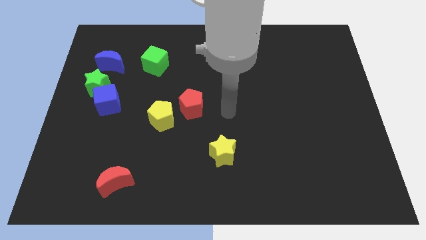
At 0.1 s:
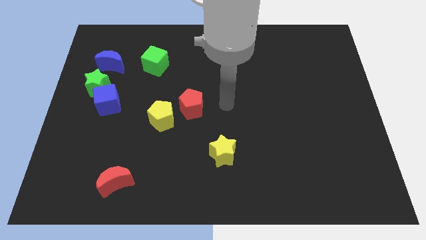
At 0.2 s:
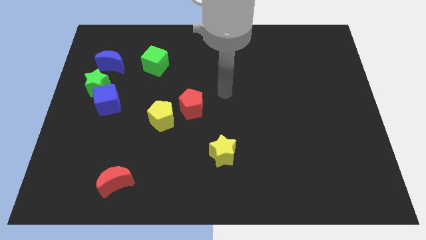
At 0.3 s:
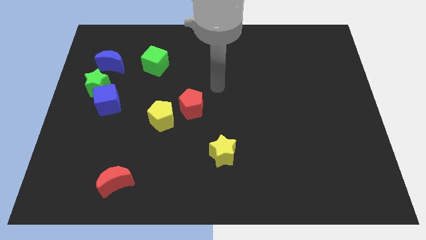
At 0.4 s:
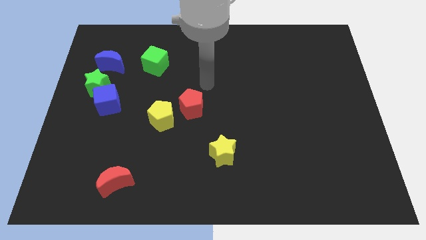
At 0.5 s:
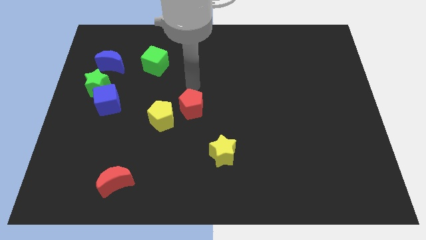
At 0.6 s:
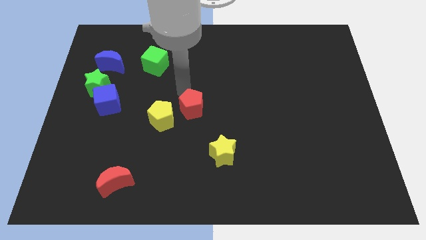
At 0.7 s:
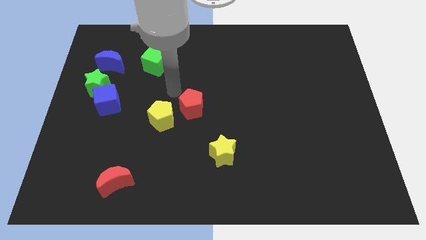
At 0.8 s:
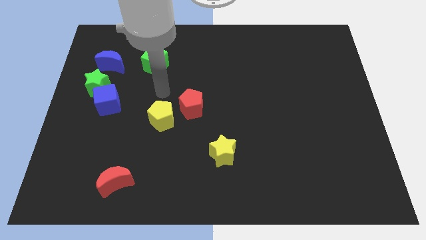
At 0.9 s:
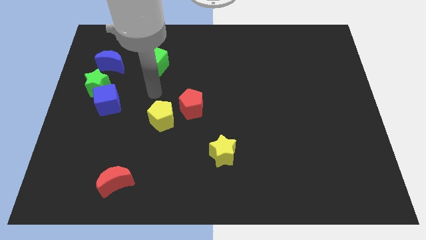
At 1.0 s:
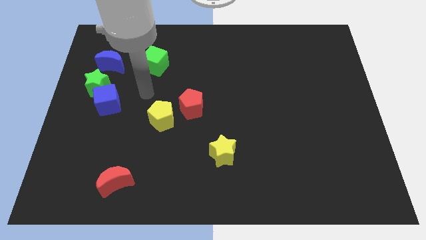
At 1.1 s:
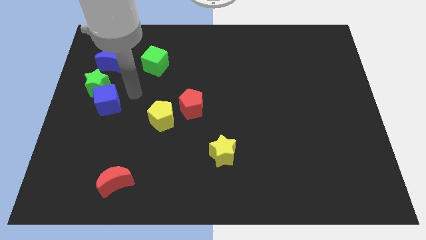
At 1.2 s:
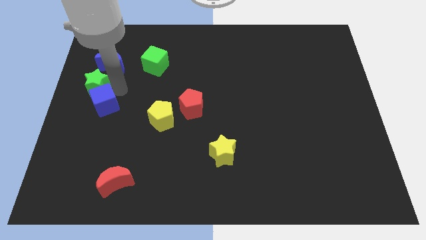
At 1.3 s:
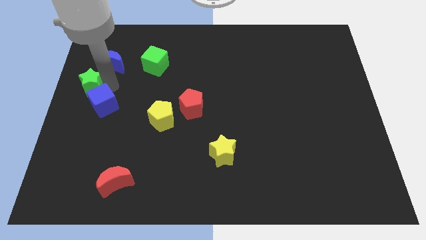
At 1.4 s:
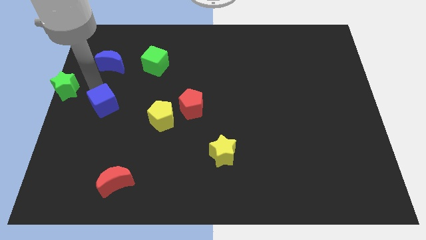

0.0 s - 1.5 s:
move the blue cube away from the green star

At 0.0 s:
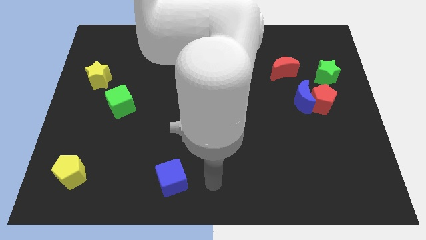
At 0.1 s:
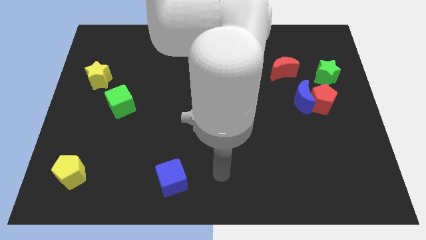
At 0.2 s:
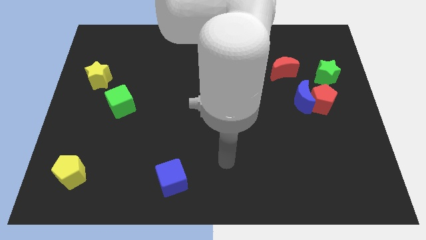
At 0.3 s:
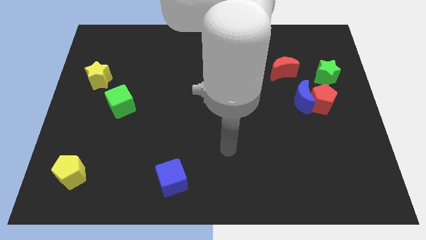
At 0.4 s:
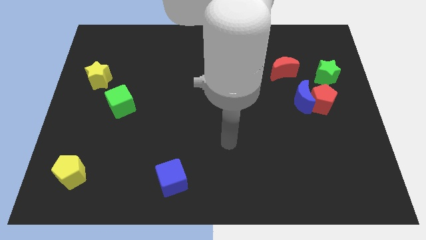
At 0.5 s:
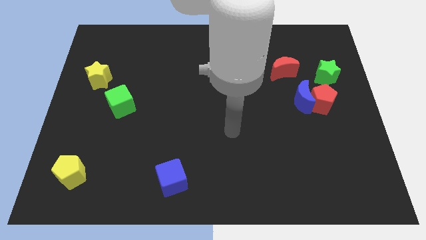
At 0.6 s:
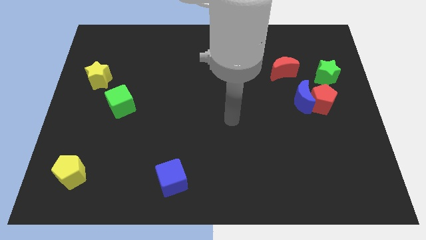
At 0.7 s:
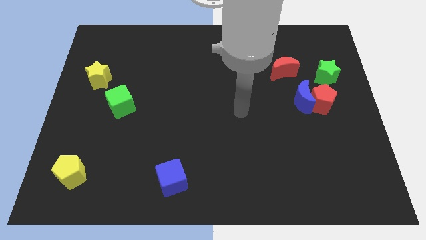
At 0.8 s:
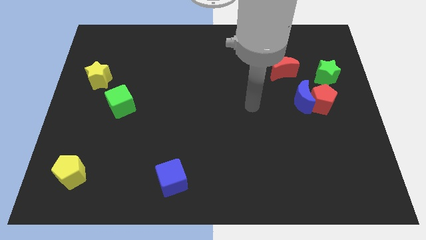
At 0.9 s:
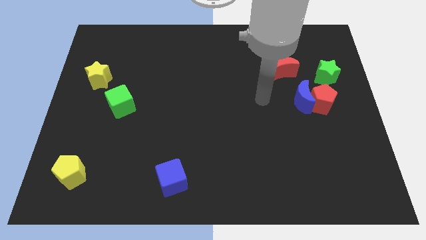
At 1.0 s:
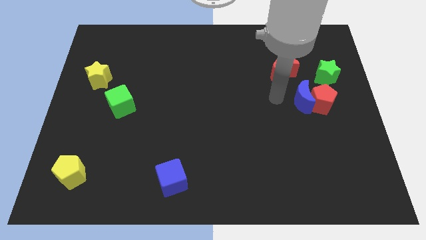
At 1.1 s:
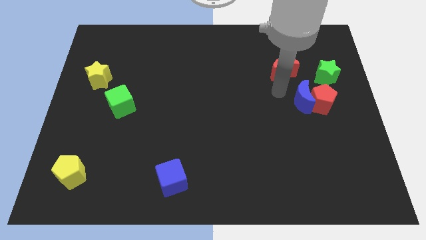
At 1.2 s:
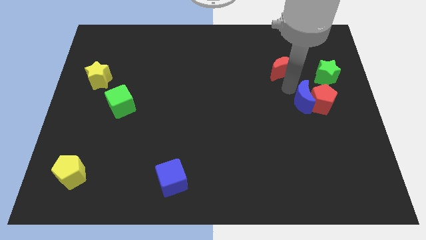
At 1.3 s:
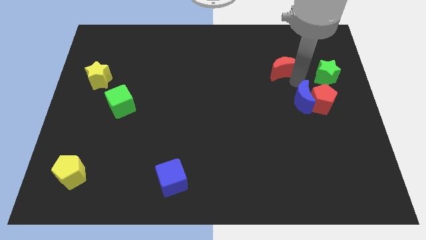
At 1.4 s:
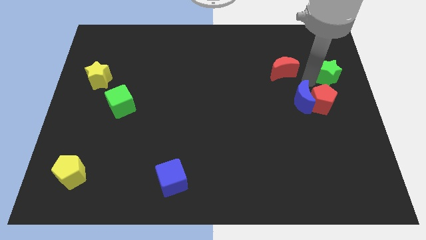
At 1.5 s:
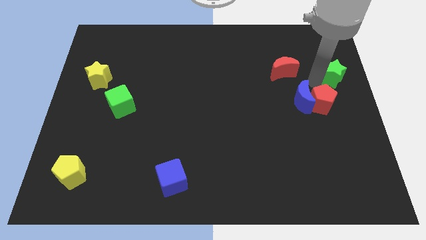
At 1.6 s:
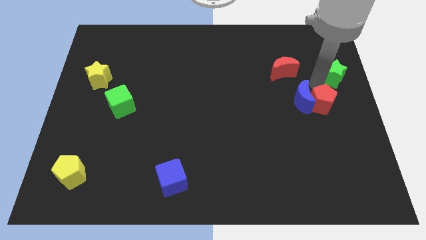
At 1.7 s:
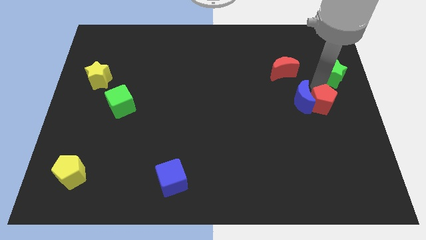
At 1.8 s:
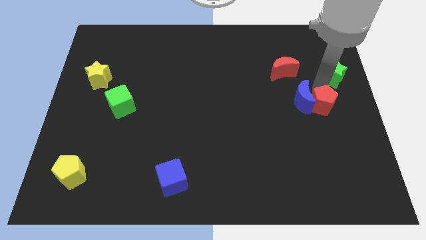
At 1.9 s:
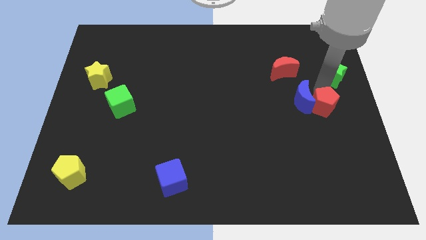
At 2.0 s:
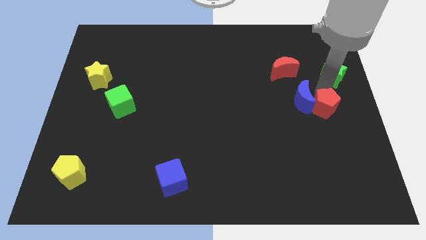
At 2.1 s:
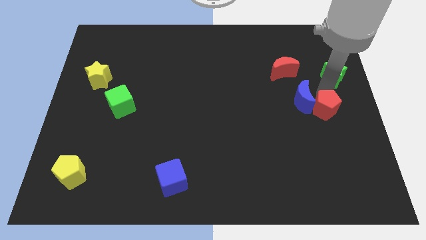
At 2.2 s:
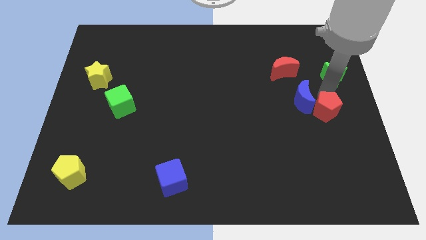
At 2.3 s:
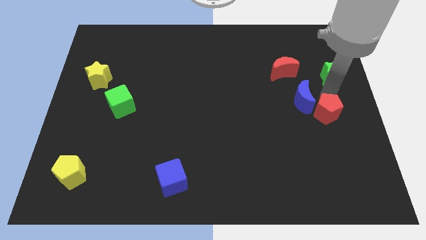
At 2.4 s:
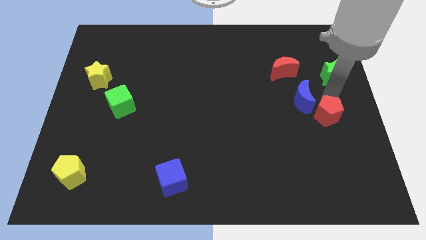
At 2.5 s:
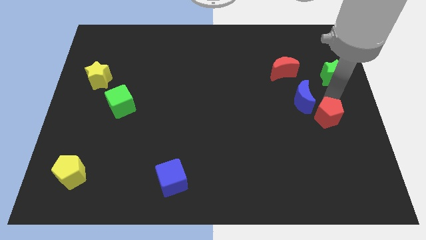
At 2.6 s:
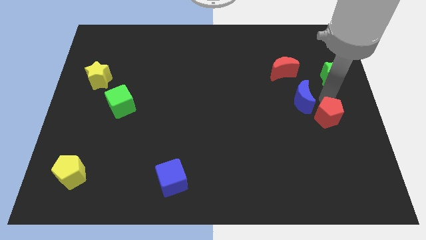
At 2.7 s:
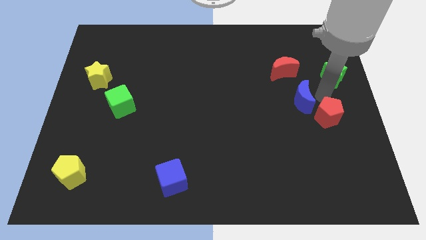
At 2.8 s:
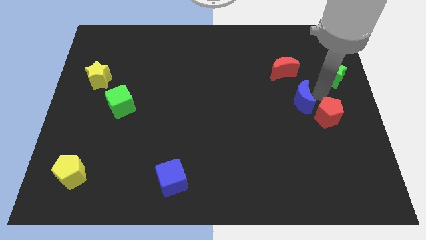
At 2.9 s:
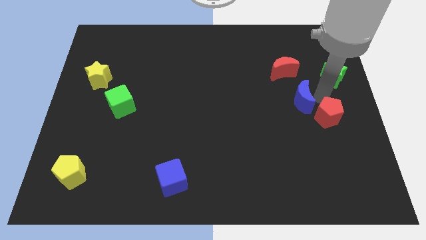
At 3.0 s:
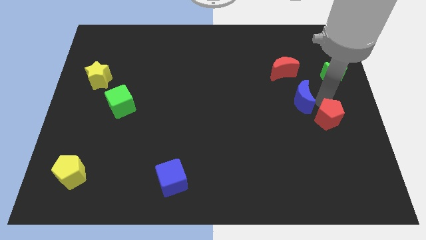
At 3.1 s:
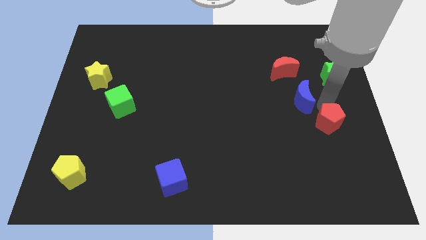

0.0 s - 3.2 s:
separate the red pentagon from the blue moon and green star

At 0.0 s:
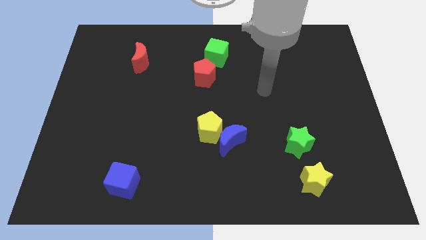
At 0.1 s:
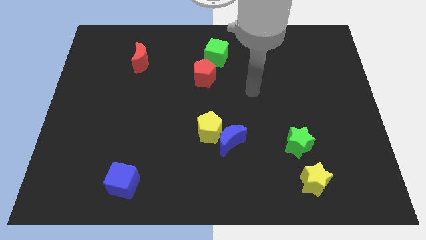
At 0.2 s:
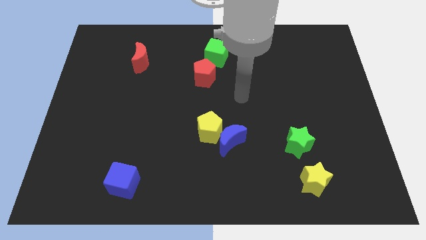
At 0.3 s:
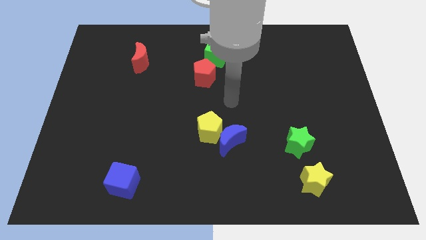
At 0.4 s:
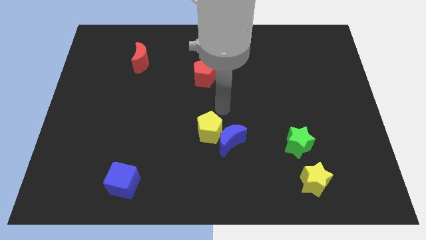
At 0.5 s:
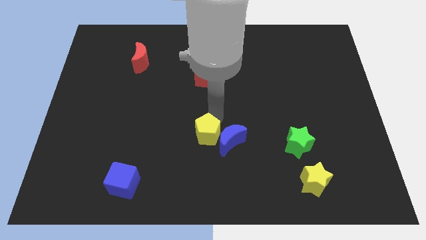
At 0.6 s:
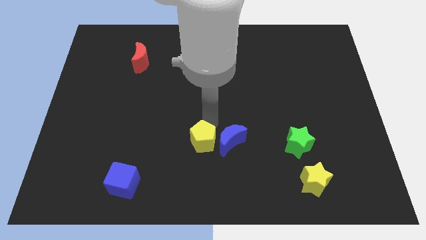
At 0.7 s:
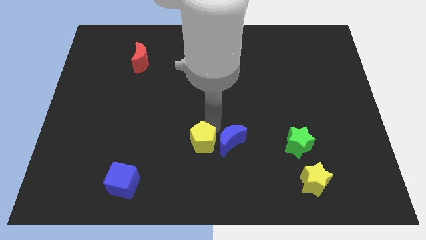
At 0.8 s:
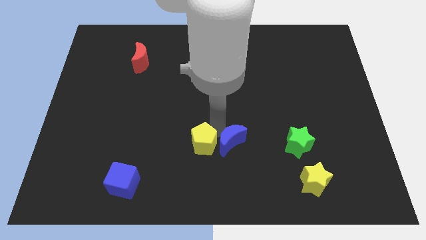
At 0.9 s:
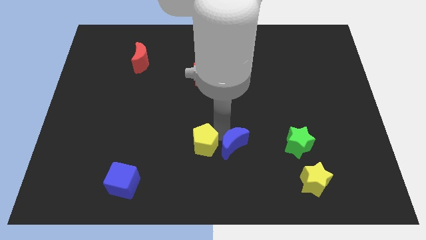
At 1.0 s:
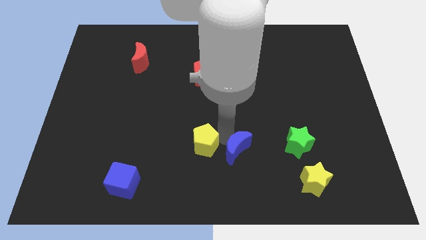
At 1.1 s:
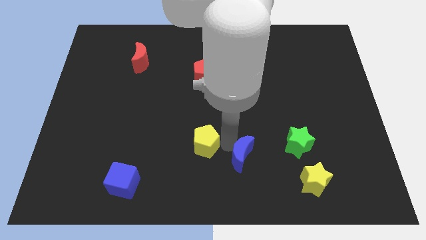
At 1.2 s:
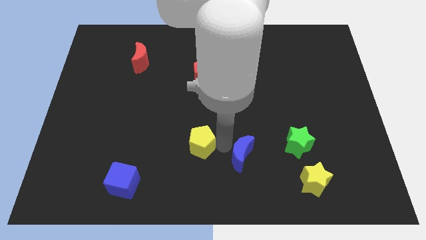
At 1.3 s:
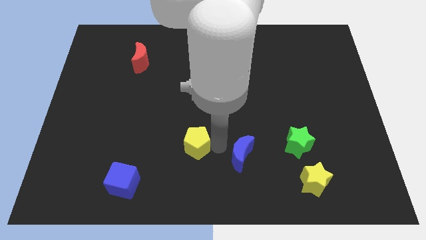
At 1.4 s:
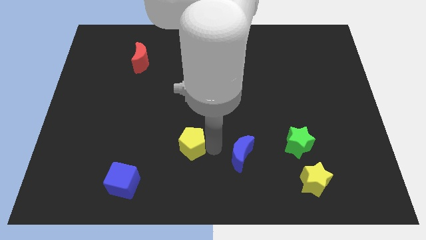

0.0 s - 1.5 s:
pull the blue moon apart from the yellow pentagon

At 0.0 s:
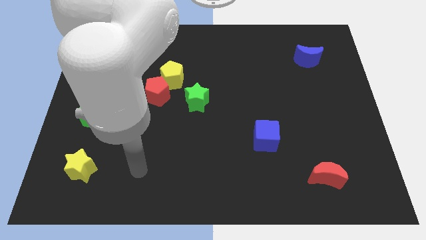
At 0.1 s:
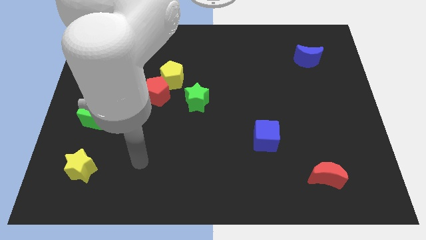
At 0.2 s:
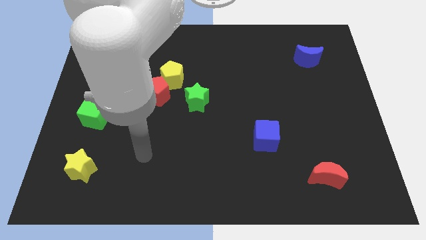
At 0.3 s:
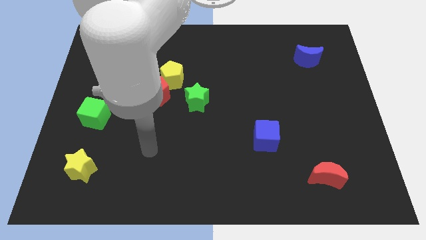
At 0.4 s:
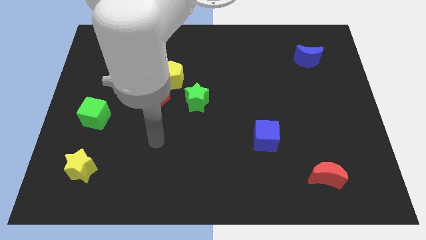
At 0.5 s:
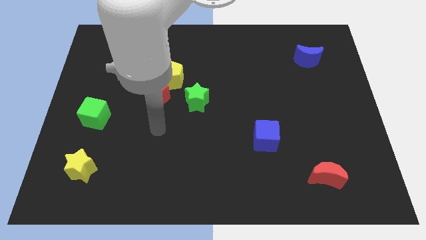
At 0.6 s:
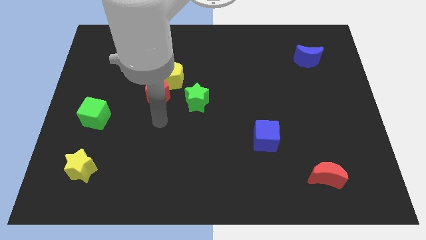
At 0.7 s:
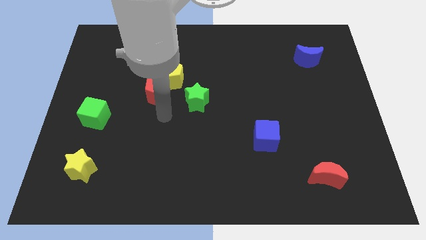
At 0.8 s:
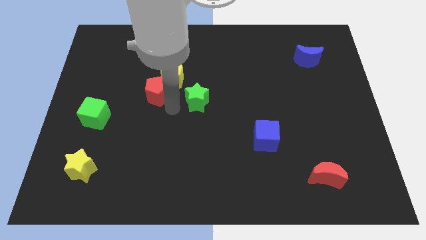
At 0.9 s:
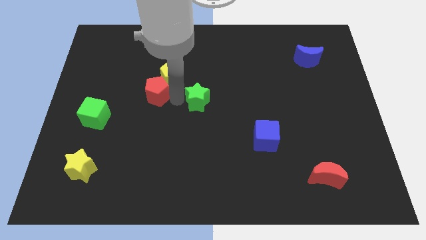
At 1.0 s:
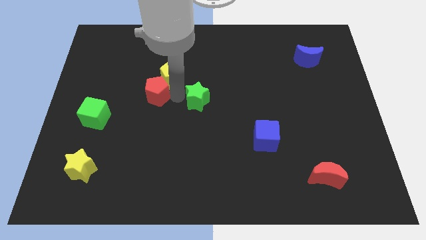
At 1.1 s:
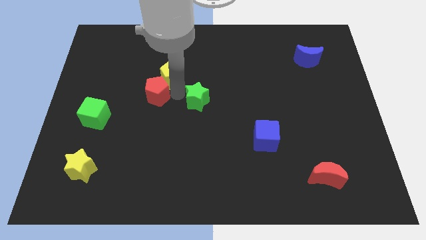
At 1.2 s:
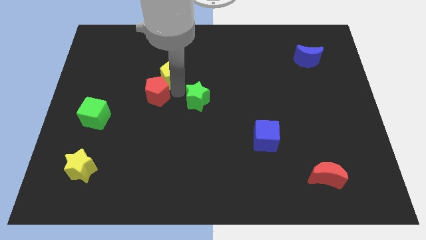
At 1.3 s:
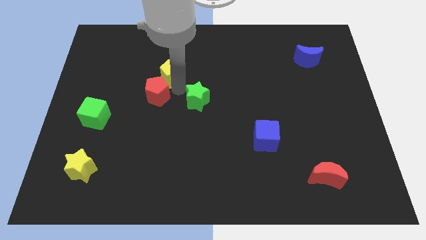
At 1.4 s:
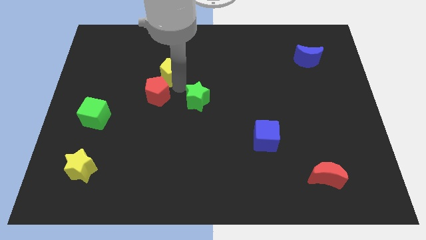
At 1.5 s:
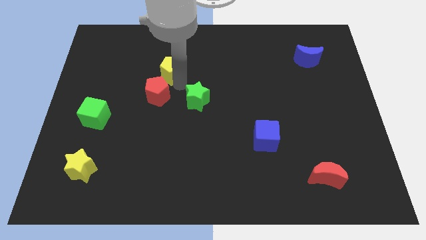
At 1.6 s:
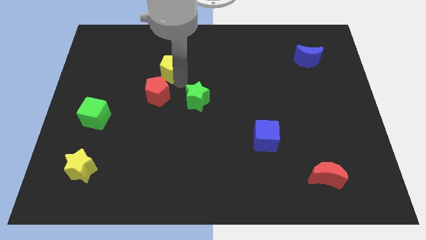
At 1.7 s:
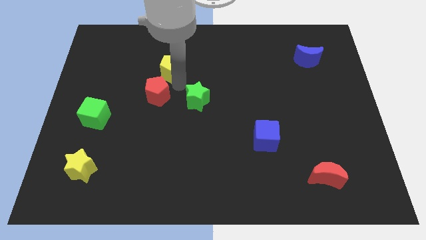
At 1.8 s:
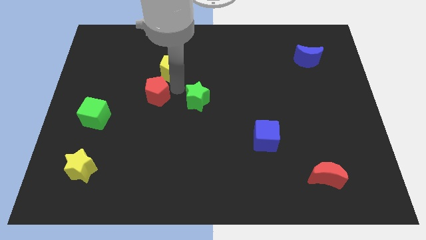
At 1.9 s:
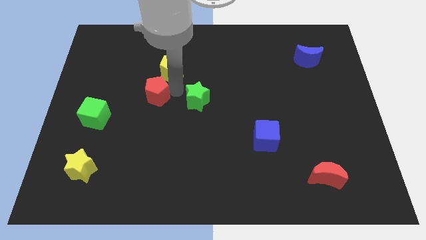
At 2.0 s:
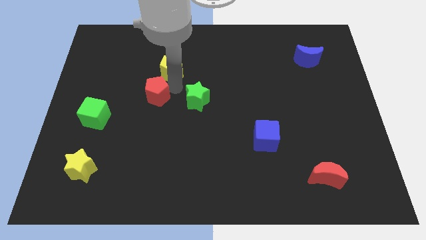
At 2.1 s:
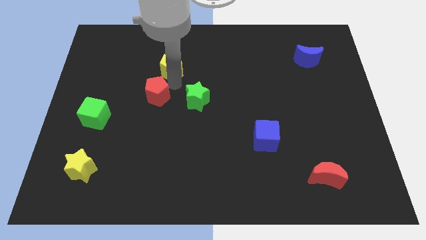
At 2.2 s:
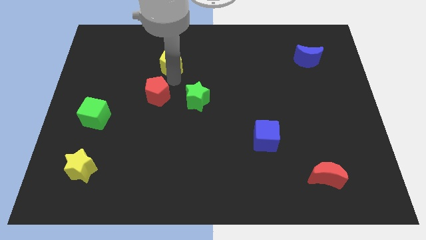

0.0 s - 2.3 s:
move the yellow pentagon away from the red pentagon and green star

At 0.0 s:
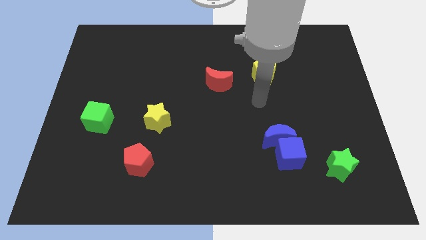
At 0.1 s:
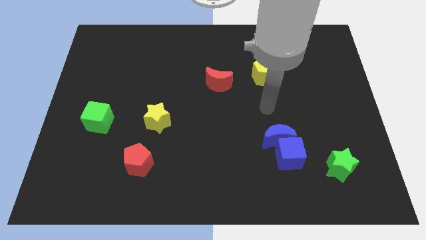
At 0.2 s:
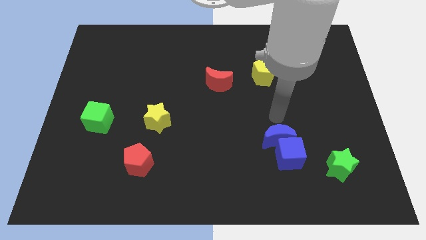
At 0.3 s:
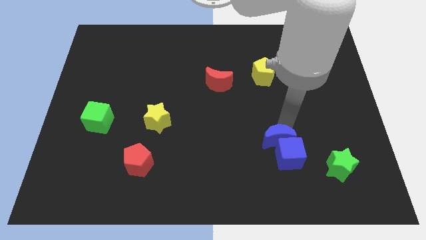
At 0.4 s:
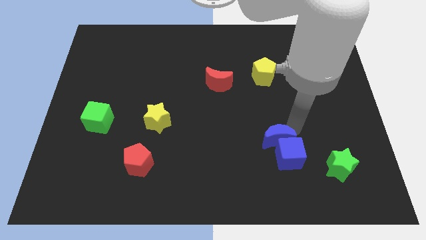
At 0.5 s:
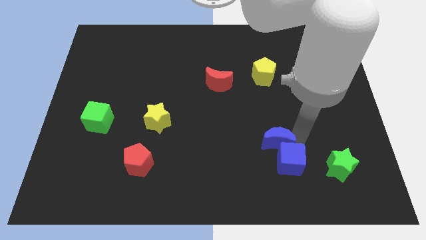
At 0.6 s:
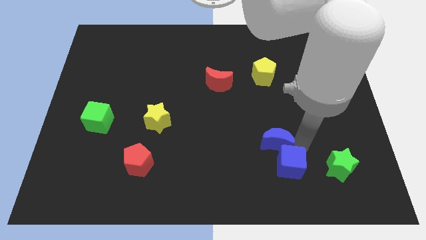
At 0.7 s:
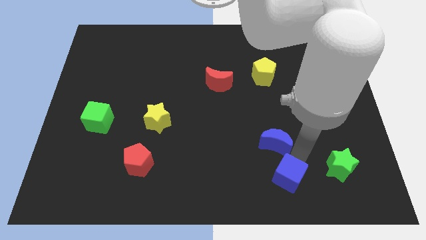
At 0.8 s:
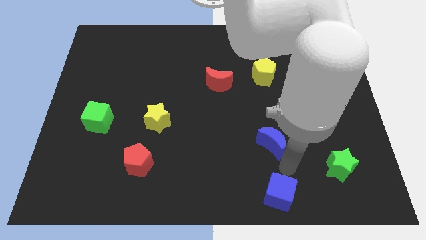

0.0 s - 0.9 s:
move the blue moon away from the blue cube
